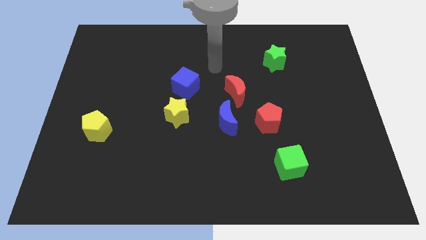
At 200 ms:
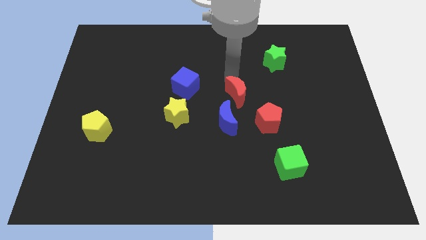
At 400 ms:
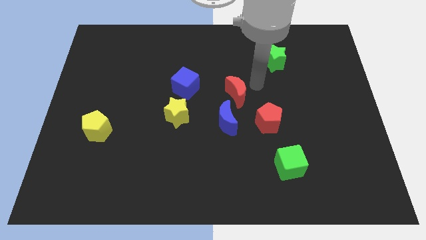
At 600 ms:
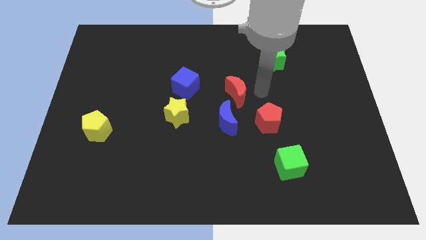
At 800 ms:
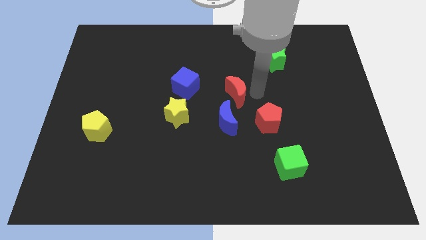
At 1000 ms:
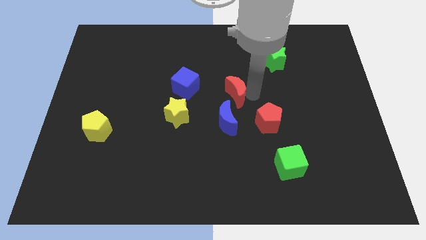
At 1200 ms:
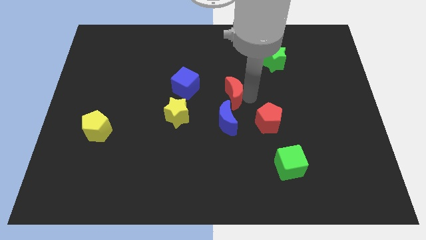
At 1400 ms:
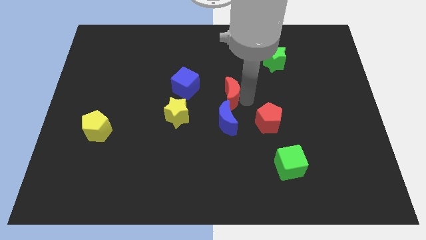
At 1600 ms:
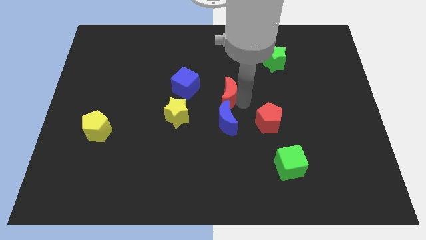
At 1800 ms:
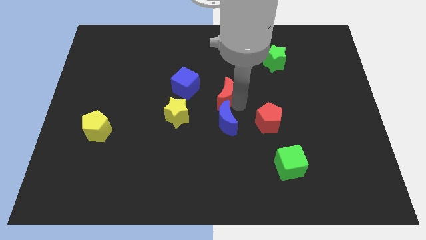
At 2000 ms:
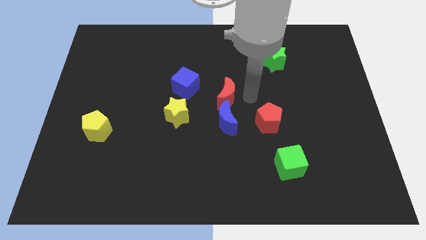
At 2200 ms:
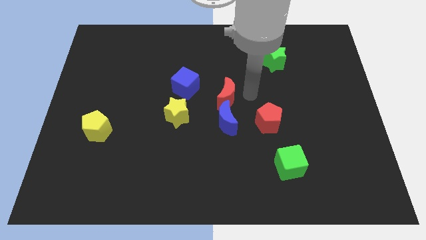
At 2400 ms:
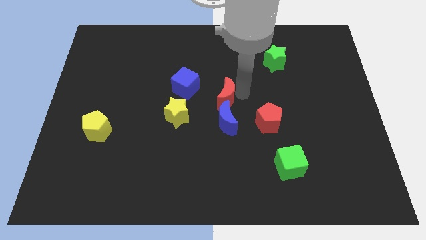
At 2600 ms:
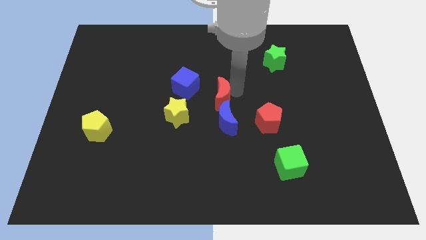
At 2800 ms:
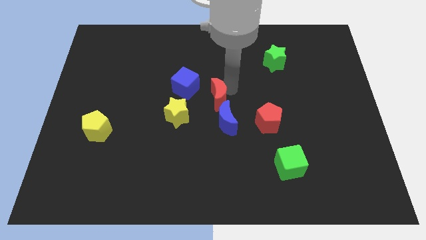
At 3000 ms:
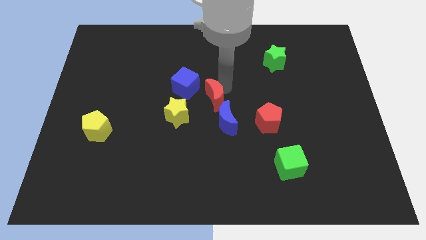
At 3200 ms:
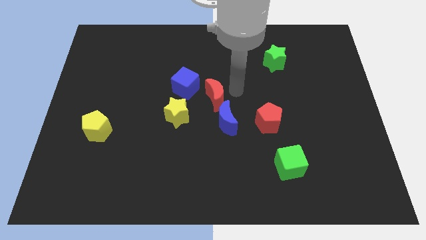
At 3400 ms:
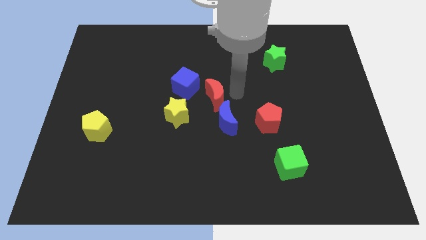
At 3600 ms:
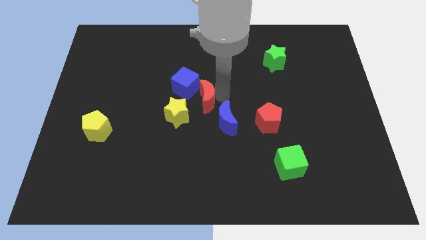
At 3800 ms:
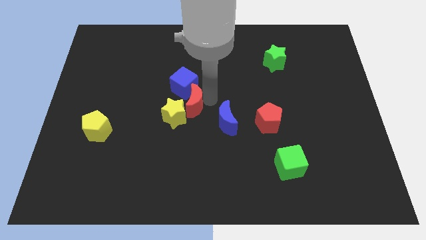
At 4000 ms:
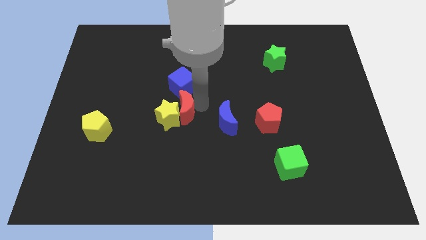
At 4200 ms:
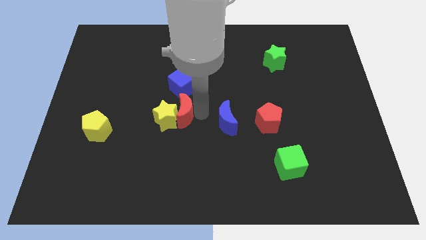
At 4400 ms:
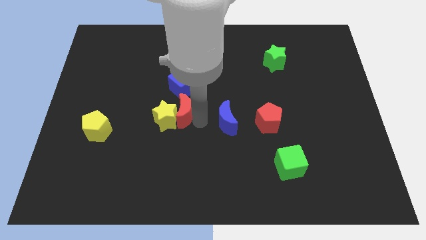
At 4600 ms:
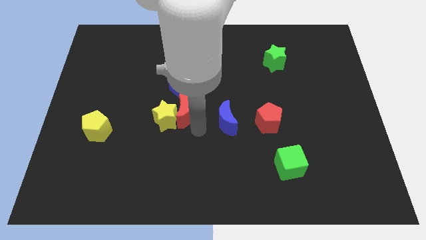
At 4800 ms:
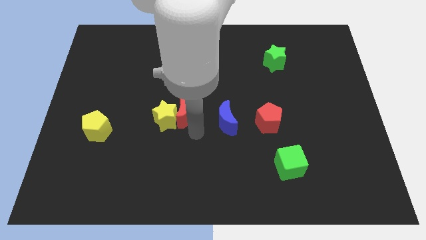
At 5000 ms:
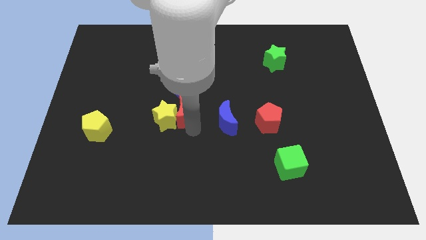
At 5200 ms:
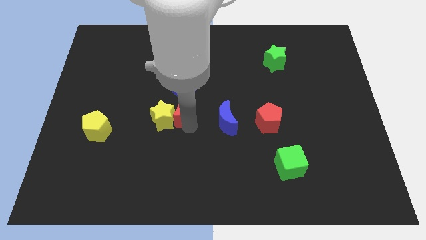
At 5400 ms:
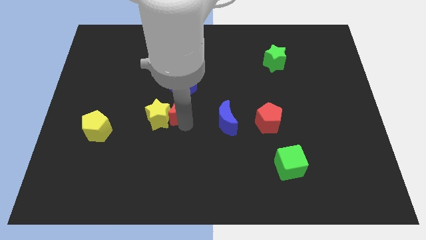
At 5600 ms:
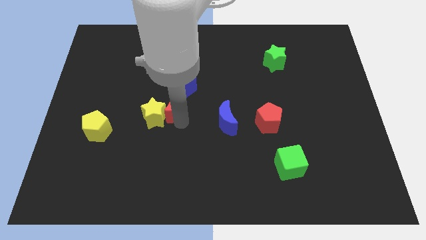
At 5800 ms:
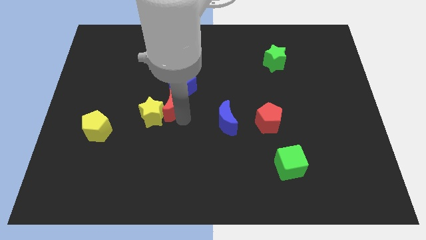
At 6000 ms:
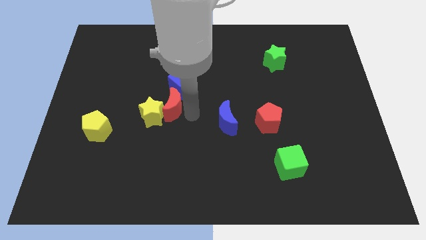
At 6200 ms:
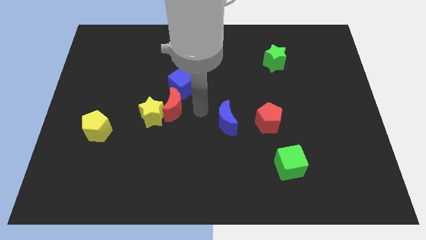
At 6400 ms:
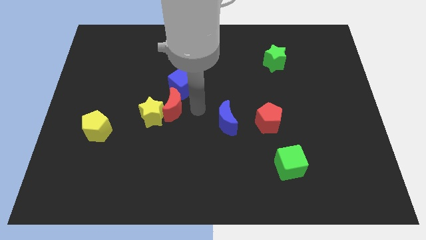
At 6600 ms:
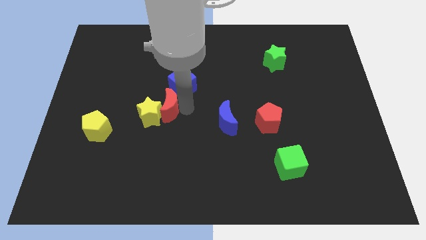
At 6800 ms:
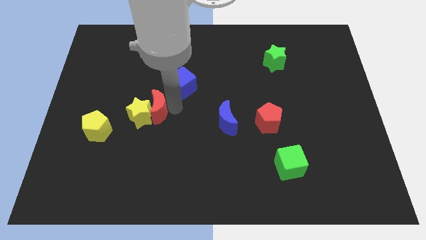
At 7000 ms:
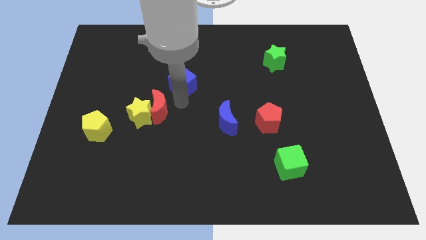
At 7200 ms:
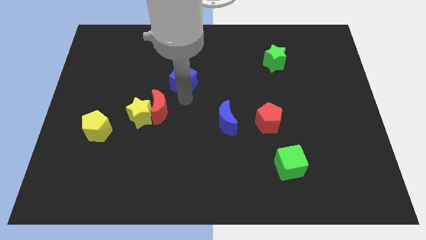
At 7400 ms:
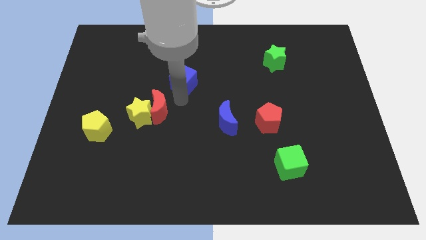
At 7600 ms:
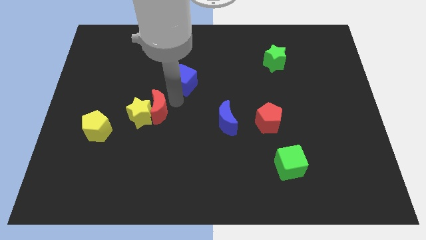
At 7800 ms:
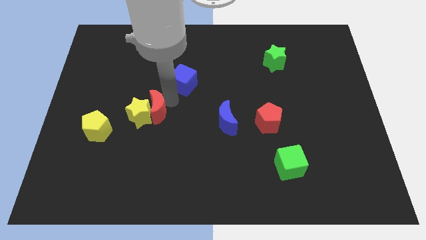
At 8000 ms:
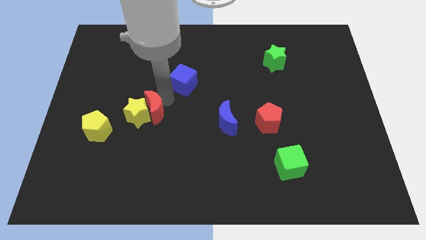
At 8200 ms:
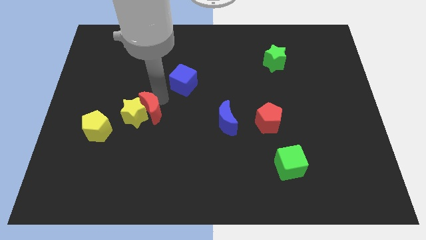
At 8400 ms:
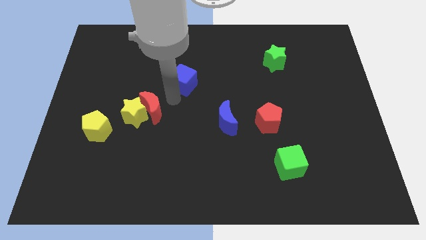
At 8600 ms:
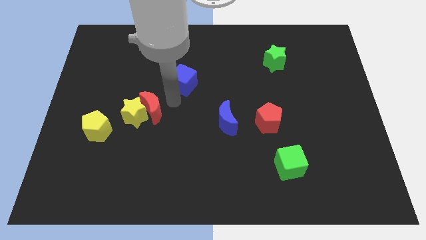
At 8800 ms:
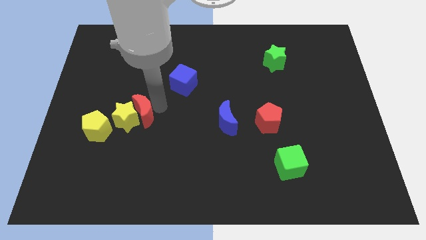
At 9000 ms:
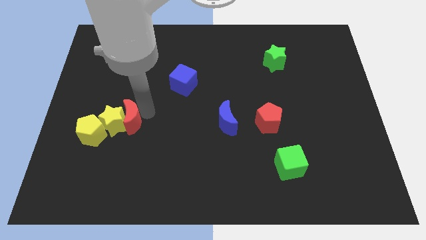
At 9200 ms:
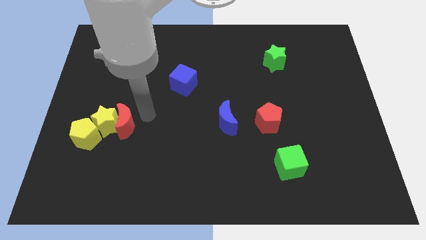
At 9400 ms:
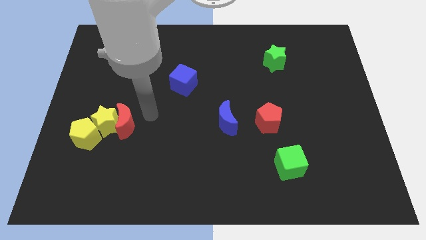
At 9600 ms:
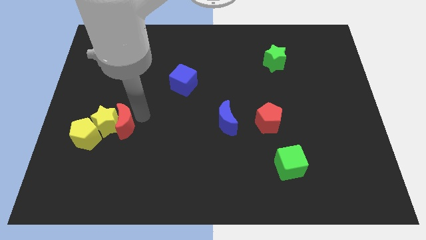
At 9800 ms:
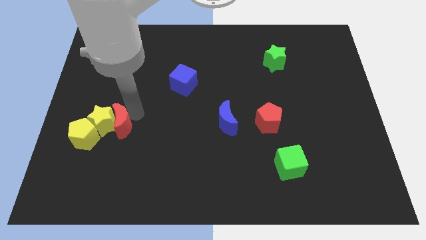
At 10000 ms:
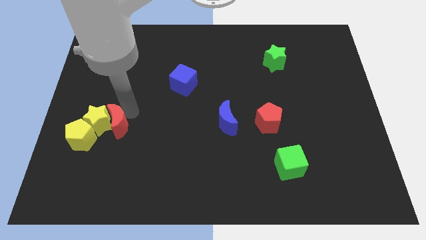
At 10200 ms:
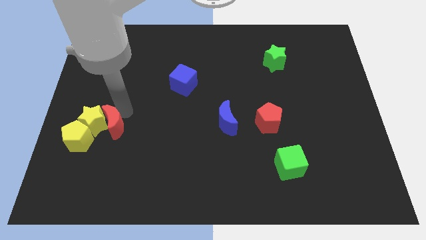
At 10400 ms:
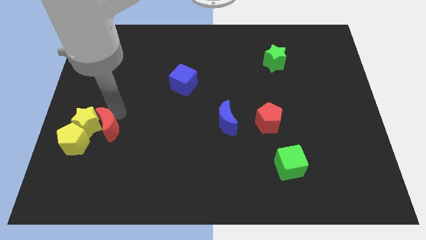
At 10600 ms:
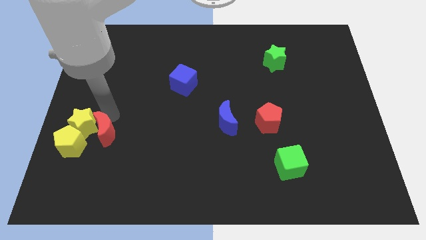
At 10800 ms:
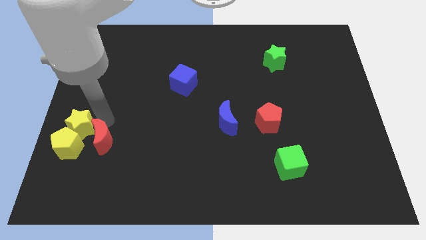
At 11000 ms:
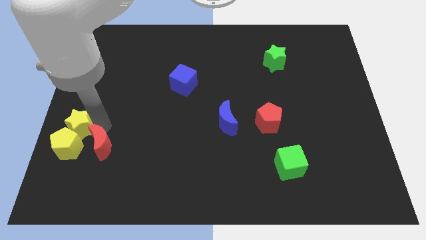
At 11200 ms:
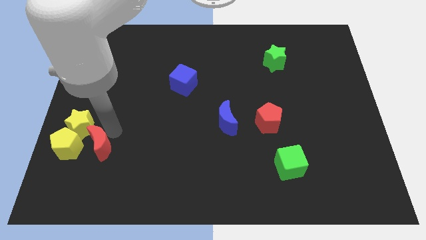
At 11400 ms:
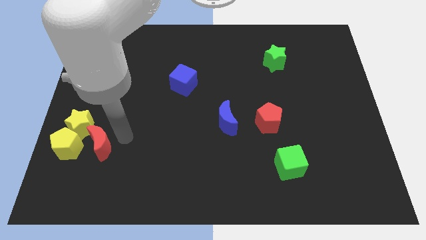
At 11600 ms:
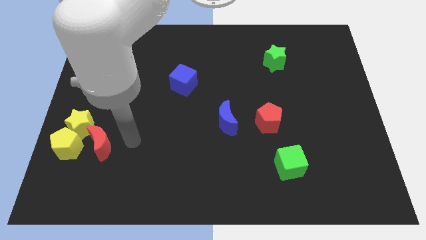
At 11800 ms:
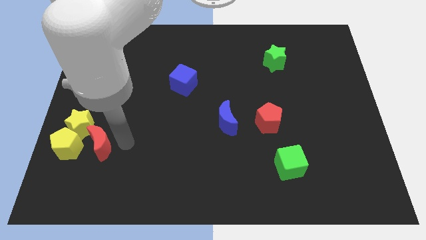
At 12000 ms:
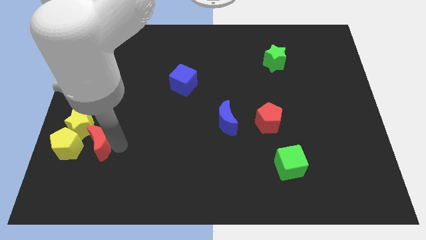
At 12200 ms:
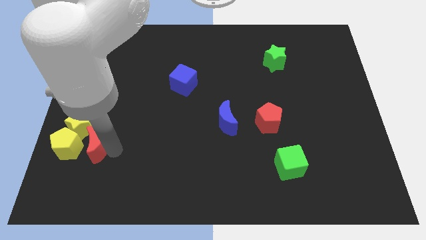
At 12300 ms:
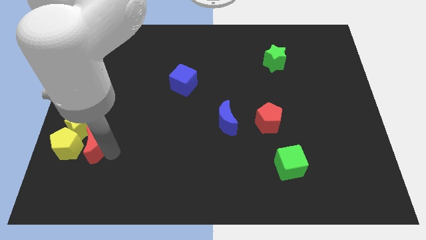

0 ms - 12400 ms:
slide the red moon to the yellow pentagon

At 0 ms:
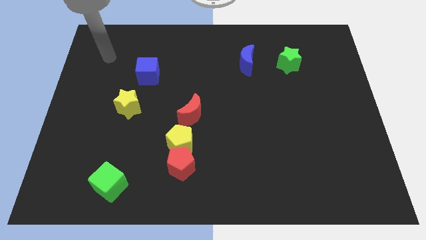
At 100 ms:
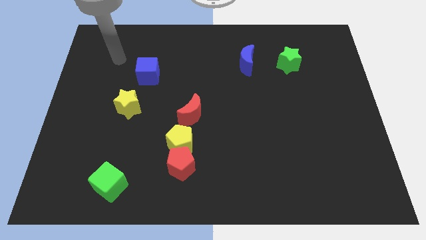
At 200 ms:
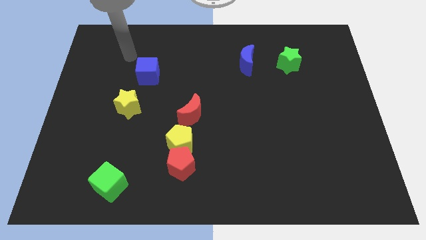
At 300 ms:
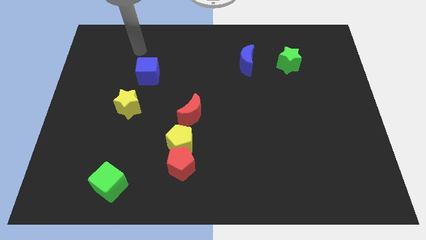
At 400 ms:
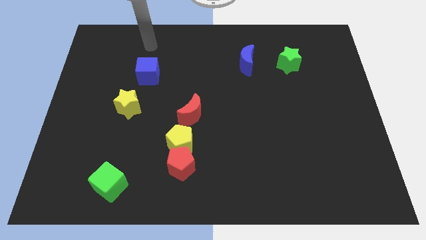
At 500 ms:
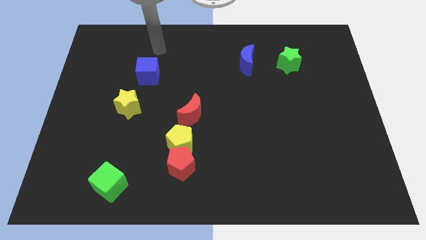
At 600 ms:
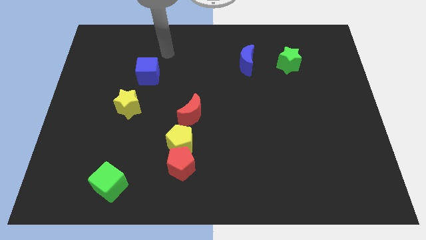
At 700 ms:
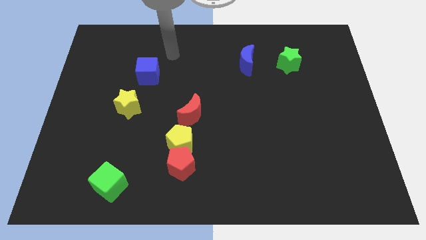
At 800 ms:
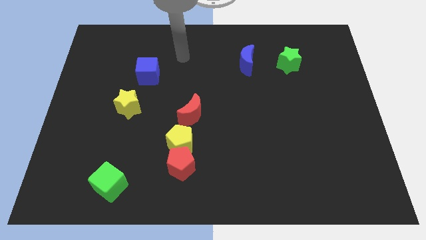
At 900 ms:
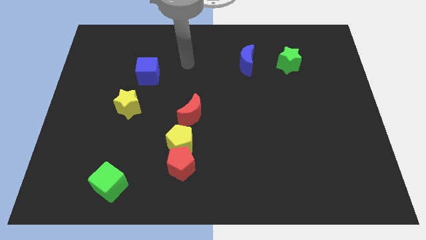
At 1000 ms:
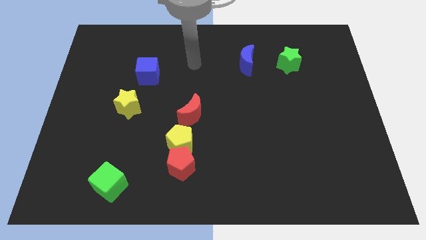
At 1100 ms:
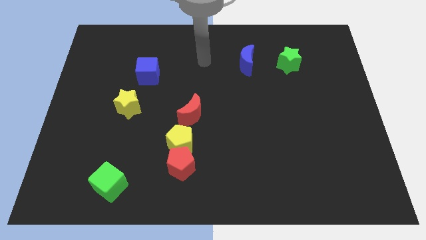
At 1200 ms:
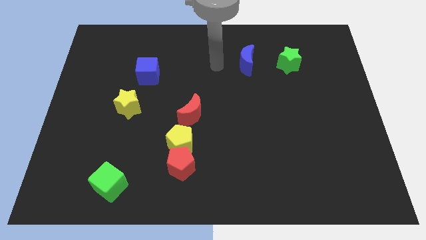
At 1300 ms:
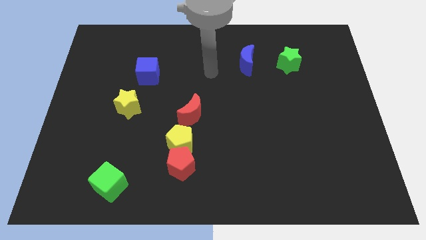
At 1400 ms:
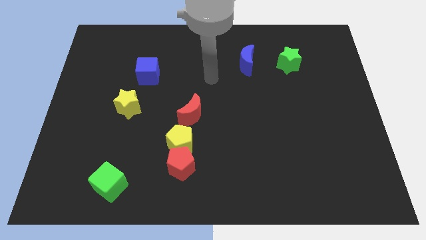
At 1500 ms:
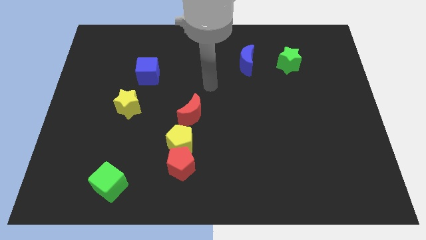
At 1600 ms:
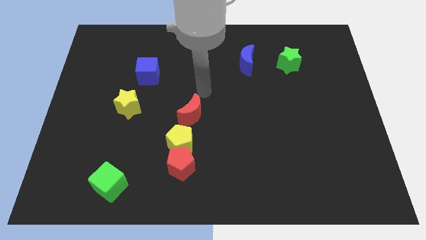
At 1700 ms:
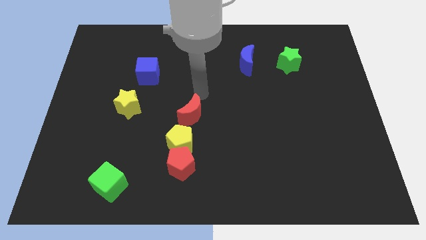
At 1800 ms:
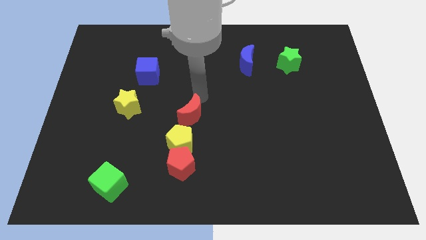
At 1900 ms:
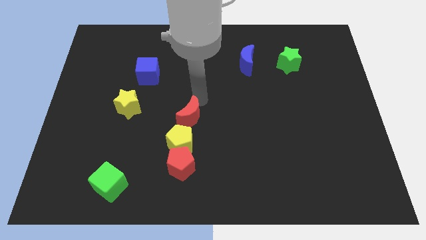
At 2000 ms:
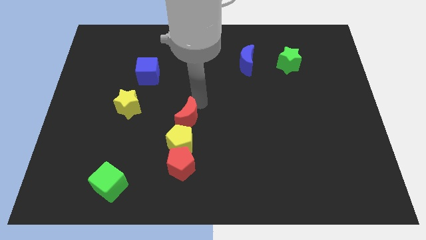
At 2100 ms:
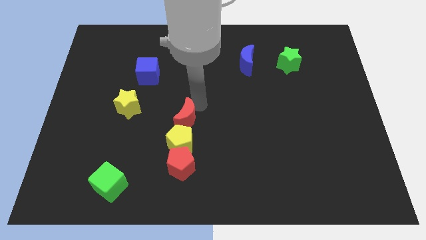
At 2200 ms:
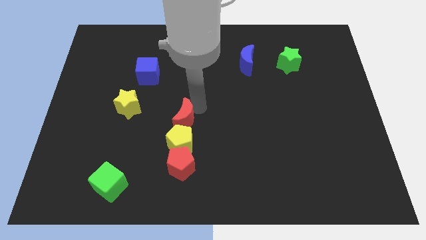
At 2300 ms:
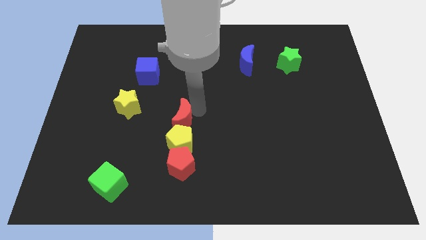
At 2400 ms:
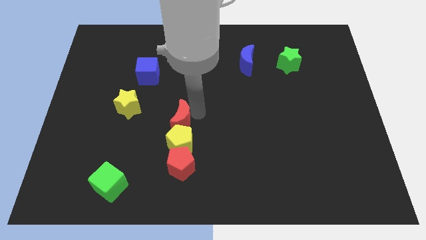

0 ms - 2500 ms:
move the red moon close to the yellow pentagon
